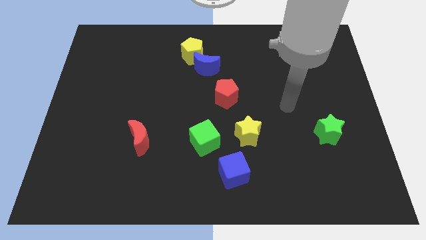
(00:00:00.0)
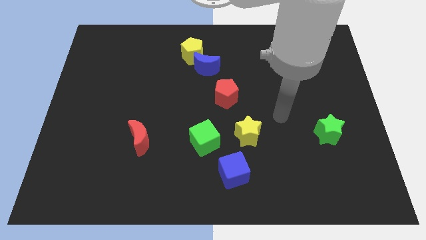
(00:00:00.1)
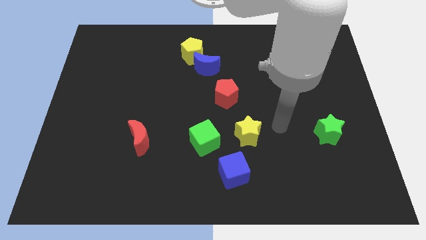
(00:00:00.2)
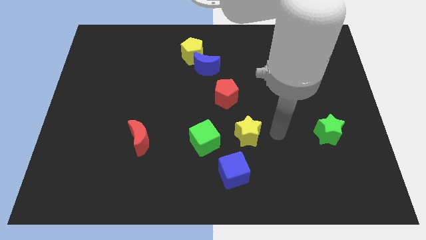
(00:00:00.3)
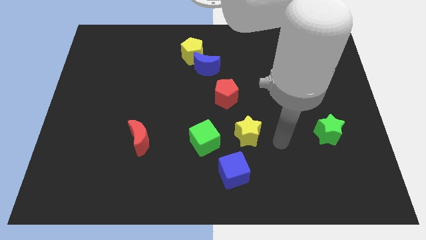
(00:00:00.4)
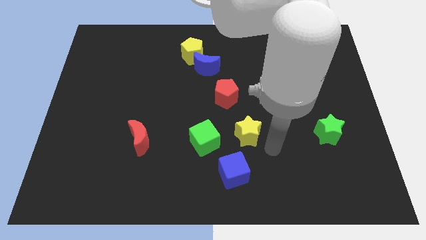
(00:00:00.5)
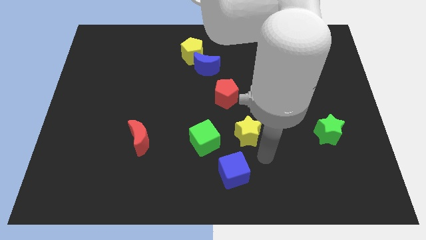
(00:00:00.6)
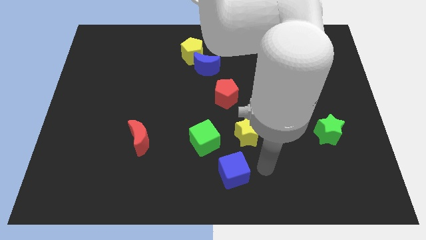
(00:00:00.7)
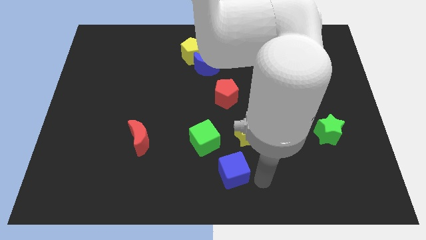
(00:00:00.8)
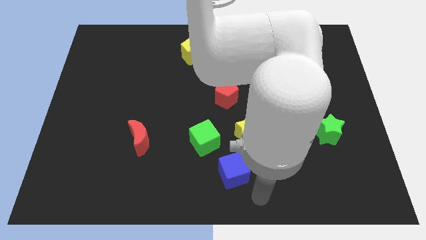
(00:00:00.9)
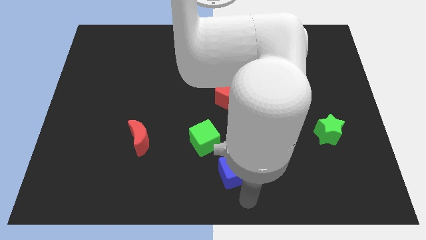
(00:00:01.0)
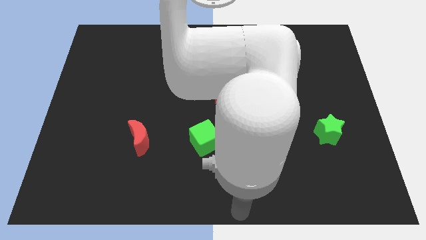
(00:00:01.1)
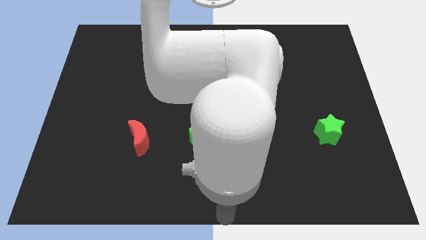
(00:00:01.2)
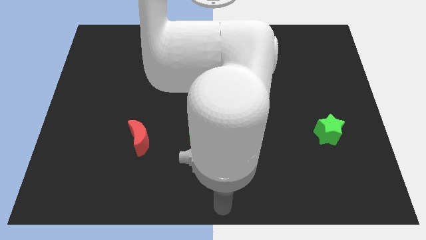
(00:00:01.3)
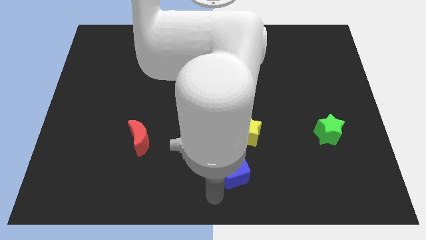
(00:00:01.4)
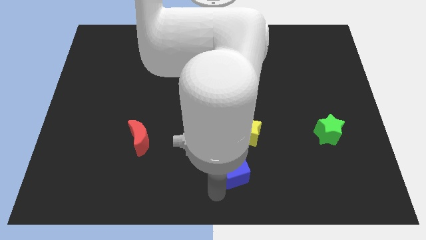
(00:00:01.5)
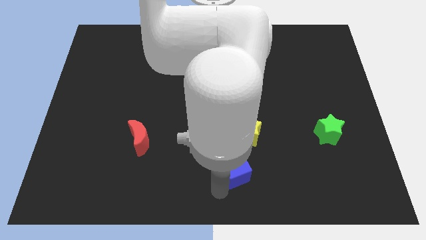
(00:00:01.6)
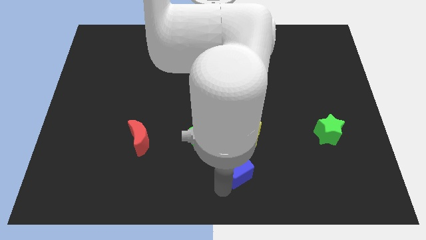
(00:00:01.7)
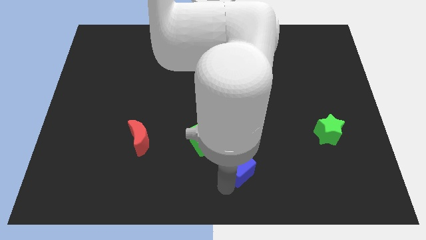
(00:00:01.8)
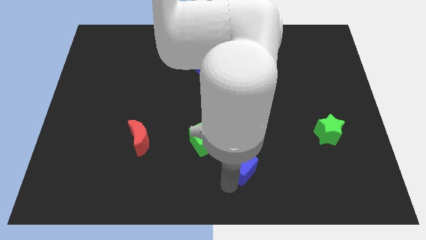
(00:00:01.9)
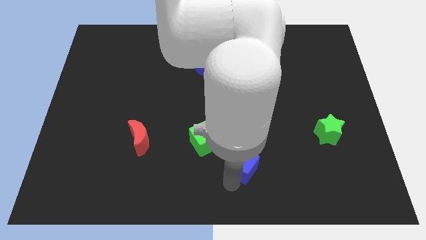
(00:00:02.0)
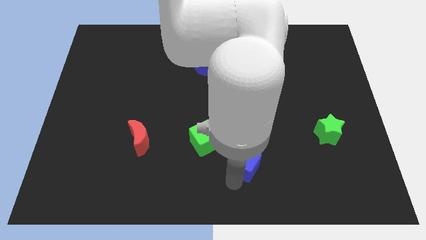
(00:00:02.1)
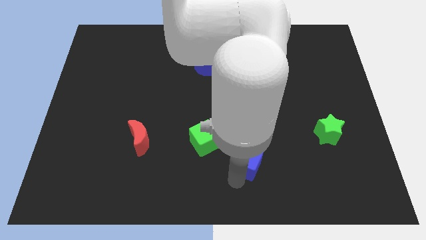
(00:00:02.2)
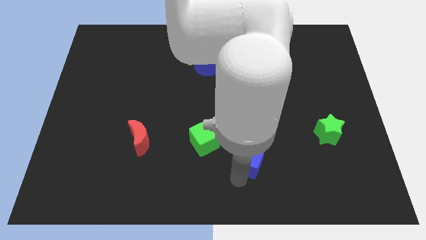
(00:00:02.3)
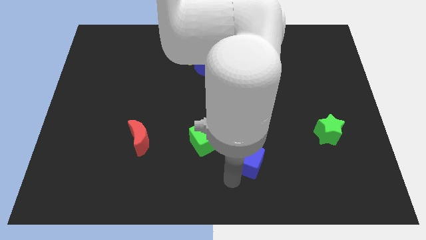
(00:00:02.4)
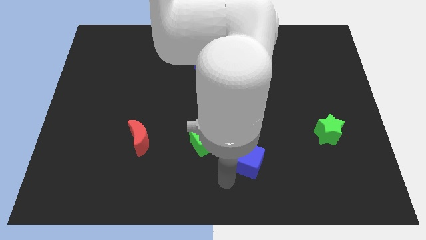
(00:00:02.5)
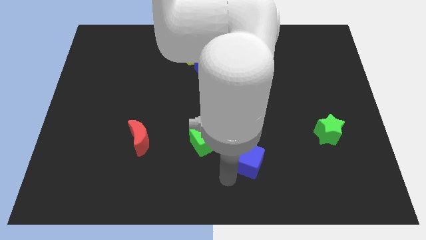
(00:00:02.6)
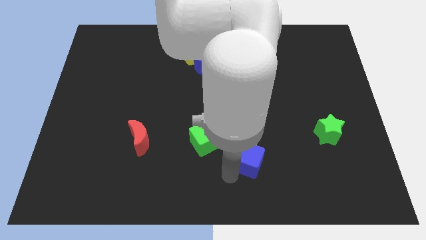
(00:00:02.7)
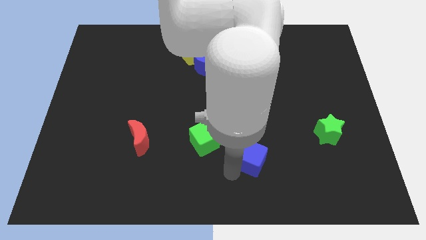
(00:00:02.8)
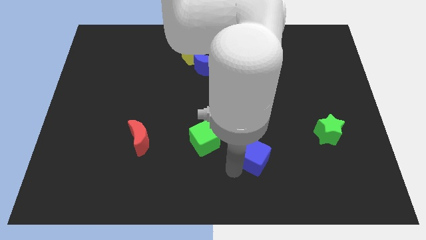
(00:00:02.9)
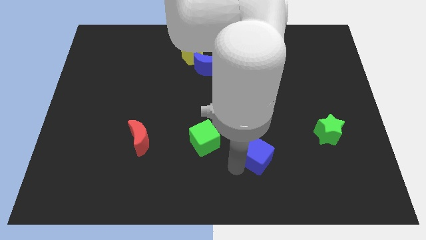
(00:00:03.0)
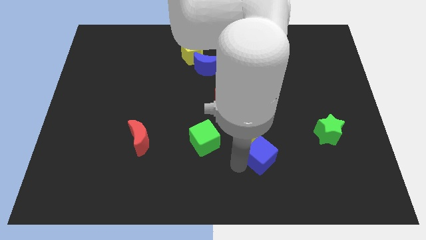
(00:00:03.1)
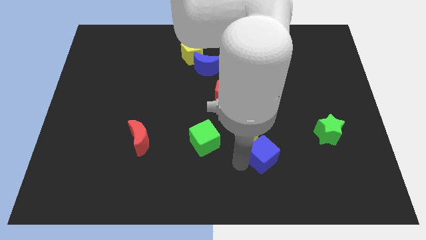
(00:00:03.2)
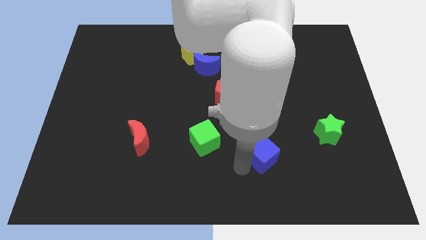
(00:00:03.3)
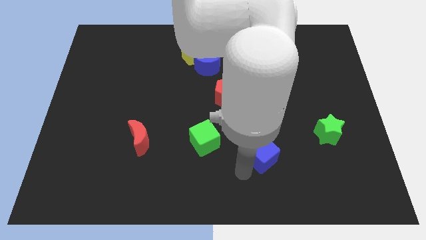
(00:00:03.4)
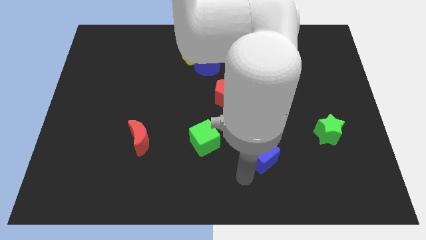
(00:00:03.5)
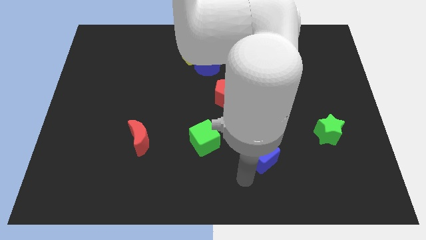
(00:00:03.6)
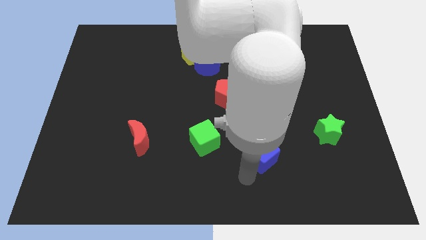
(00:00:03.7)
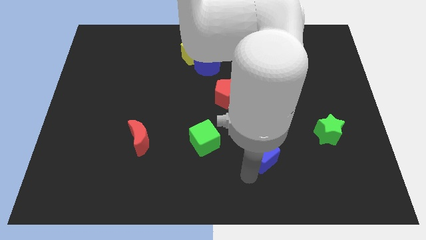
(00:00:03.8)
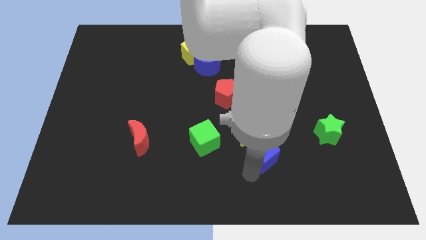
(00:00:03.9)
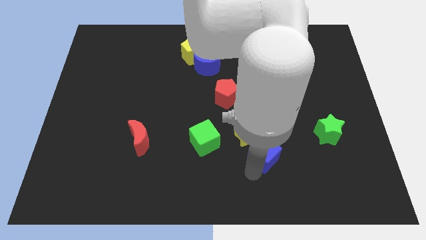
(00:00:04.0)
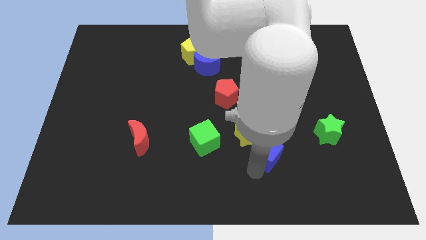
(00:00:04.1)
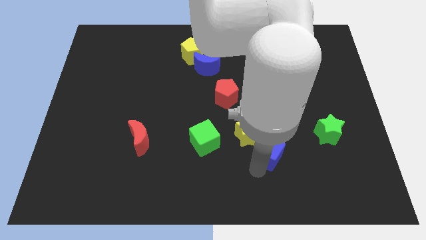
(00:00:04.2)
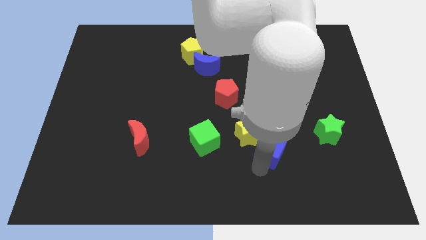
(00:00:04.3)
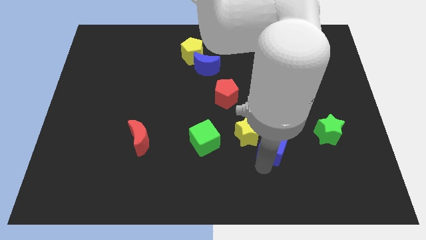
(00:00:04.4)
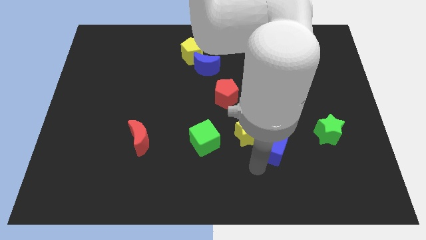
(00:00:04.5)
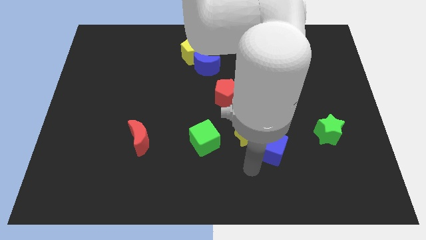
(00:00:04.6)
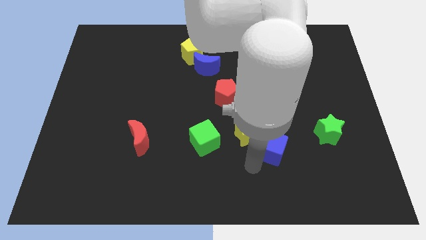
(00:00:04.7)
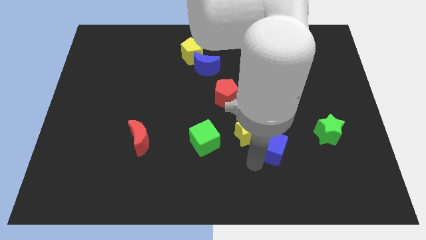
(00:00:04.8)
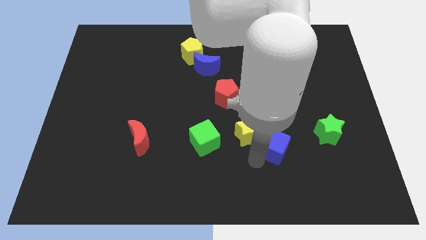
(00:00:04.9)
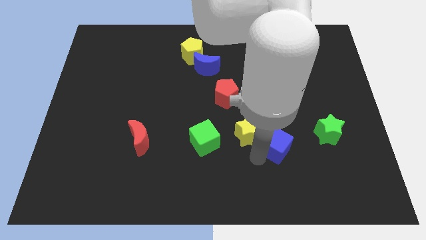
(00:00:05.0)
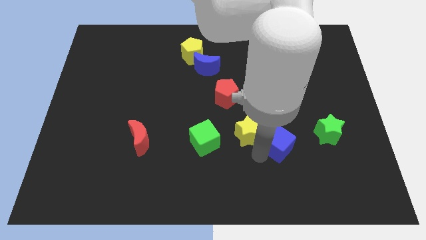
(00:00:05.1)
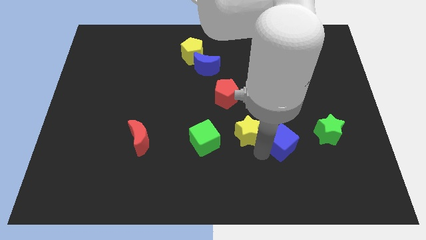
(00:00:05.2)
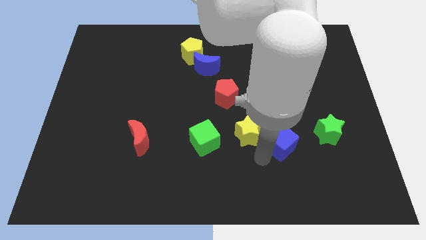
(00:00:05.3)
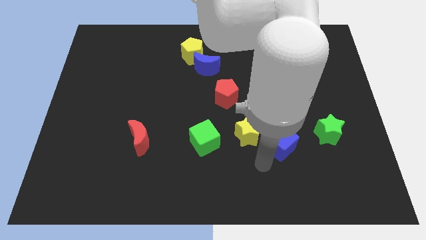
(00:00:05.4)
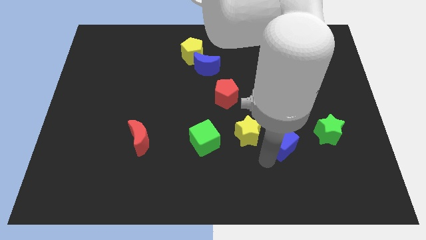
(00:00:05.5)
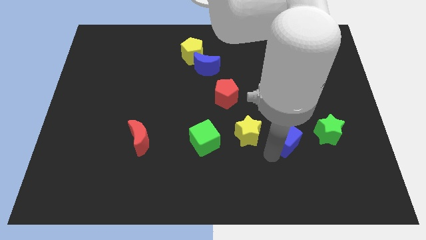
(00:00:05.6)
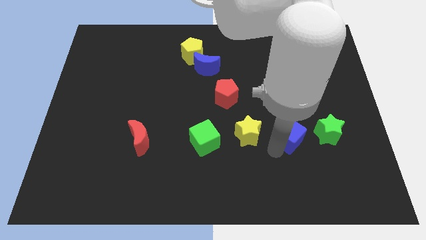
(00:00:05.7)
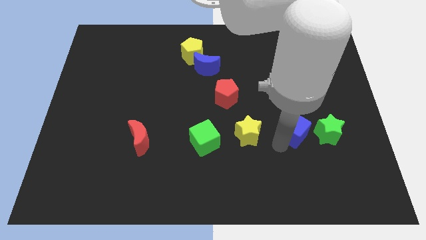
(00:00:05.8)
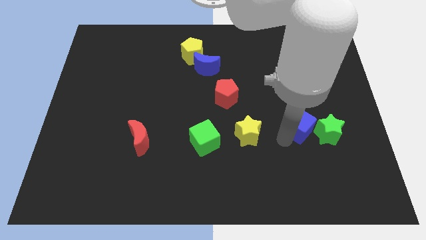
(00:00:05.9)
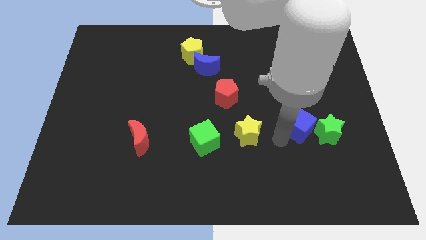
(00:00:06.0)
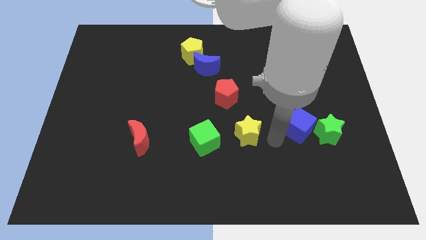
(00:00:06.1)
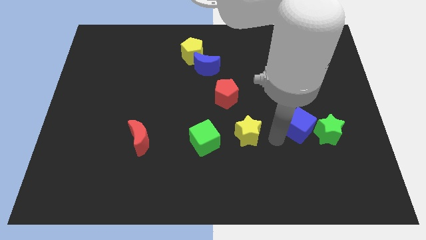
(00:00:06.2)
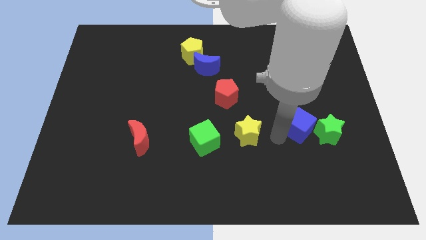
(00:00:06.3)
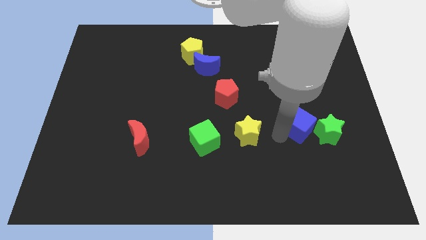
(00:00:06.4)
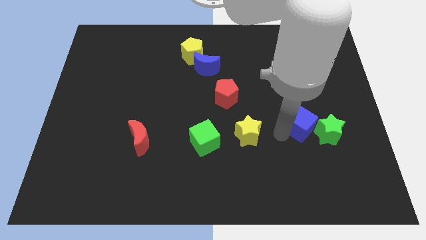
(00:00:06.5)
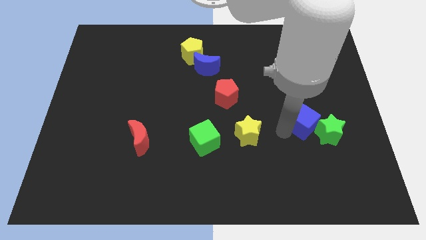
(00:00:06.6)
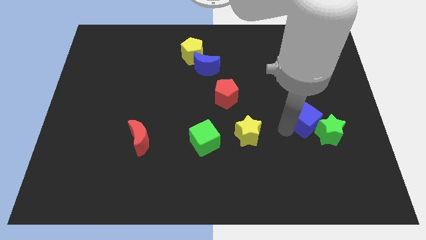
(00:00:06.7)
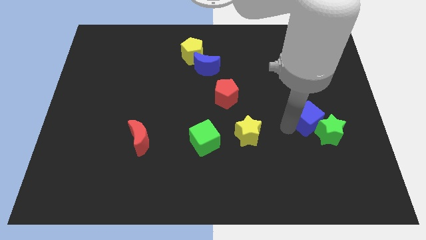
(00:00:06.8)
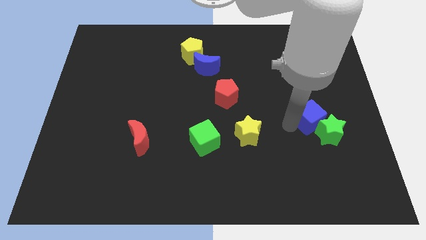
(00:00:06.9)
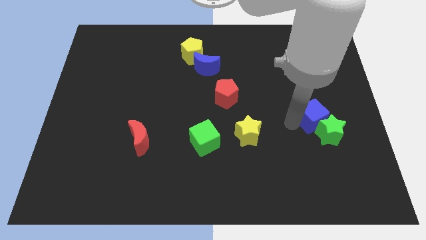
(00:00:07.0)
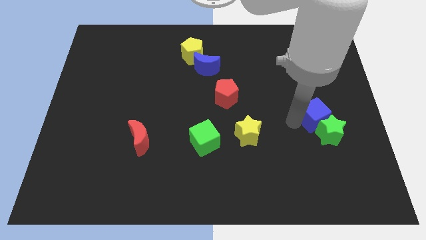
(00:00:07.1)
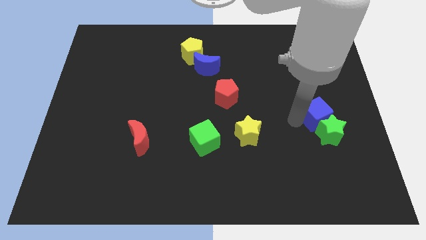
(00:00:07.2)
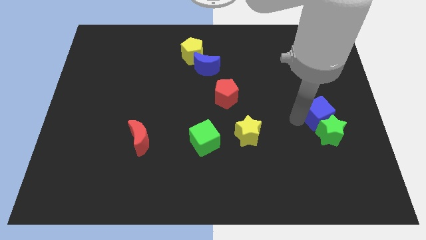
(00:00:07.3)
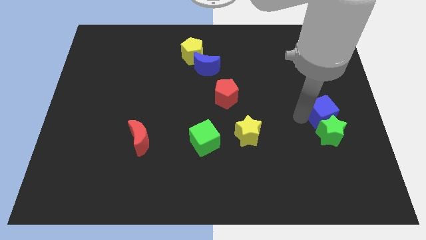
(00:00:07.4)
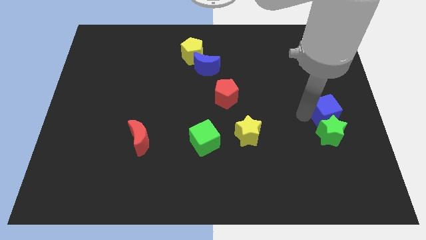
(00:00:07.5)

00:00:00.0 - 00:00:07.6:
move the blue cube to the right side of the board
